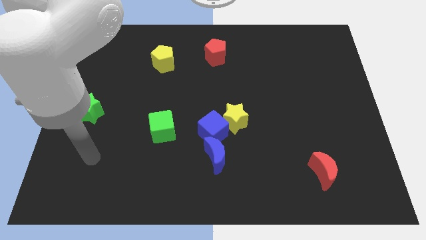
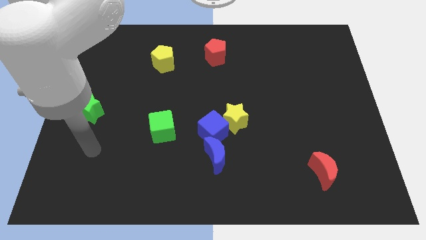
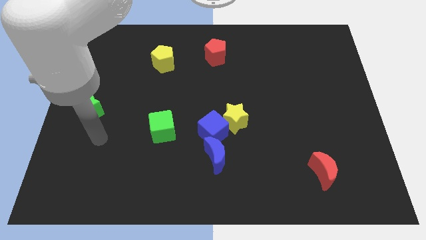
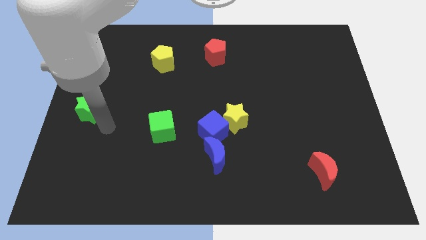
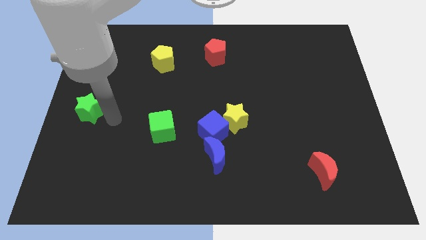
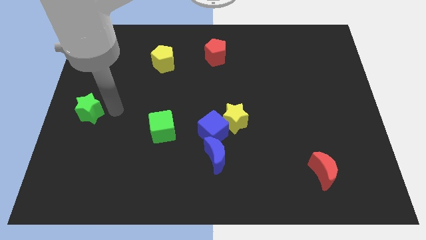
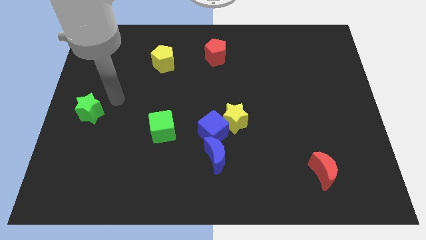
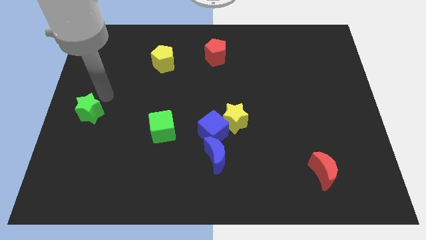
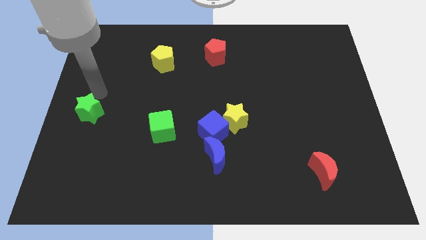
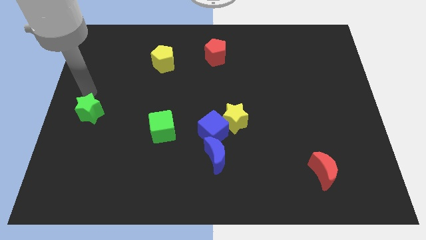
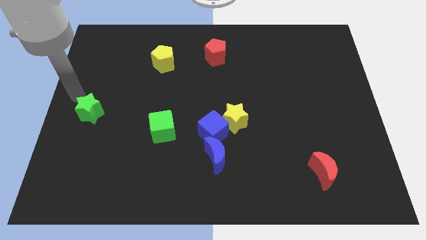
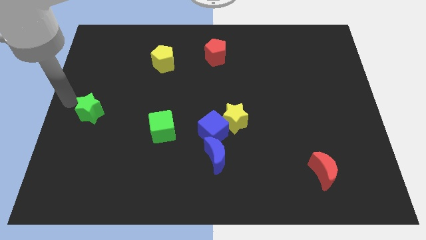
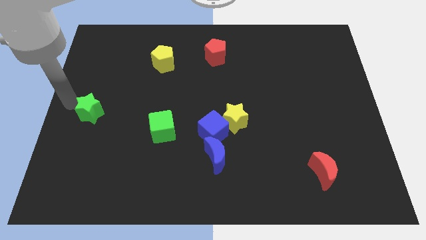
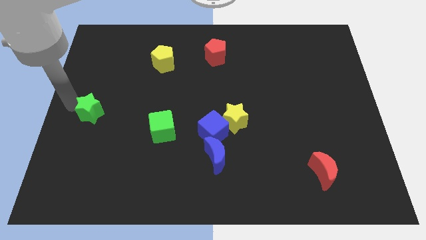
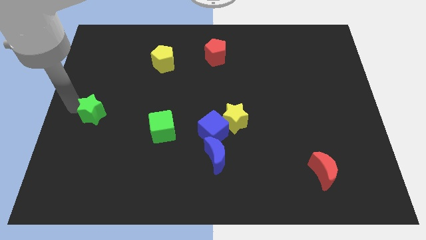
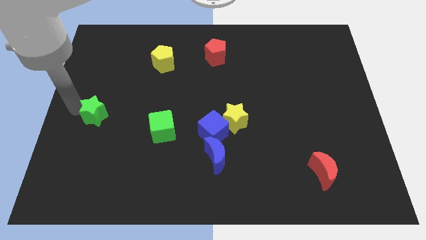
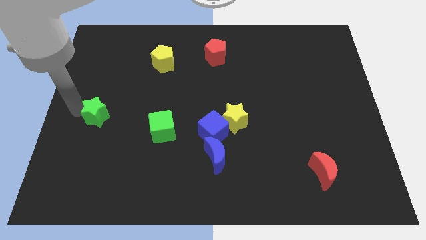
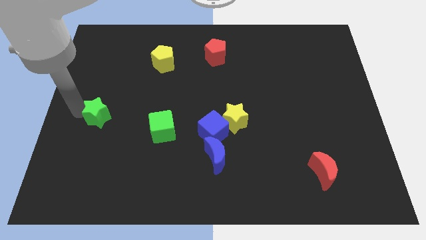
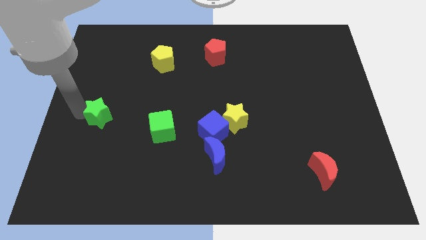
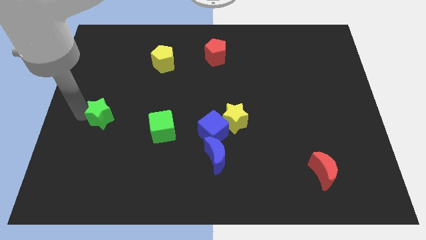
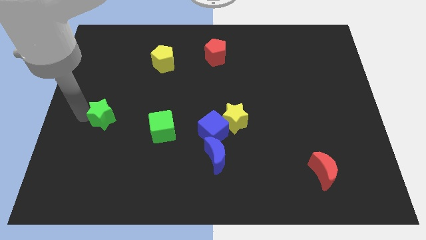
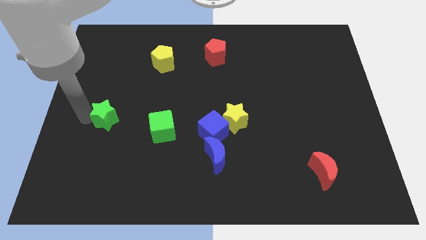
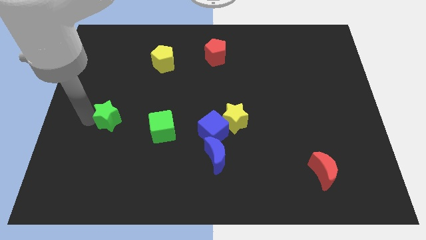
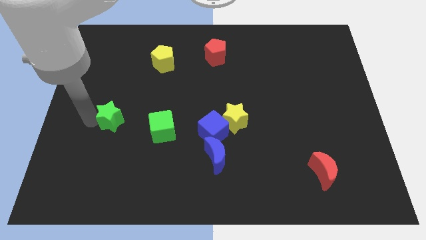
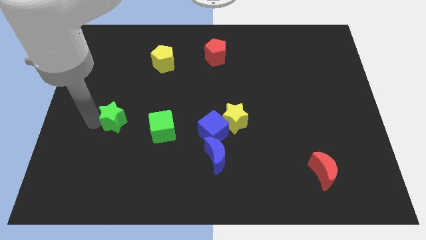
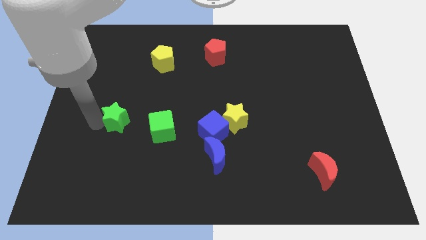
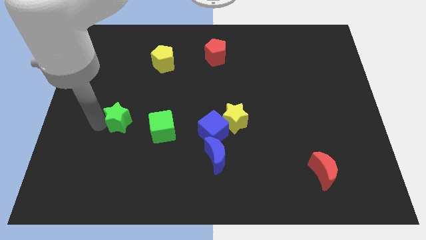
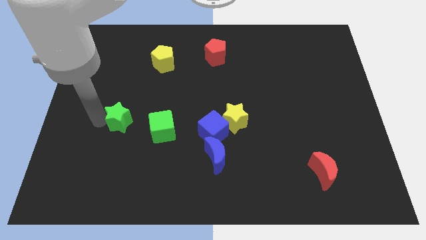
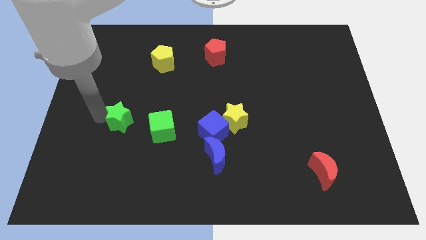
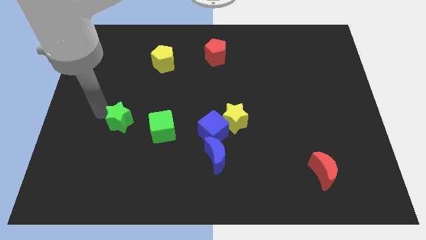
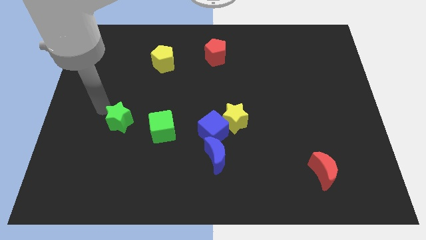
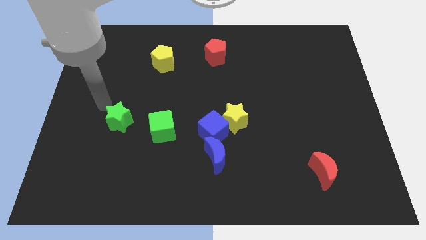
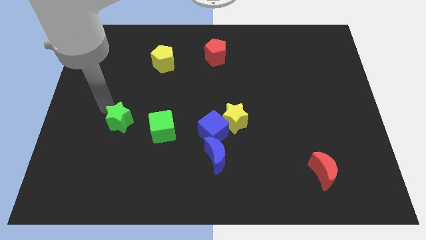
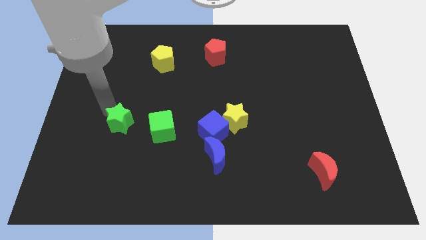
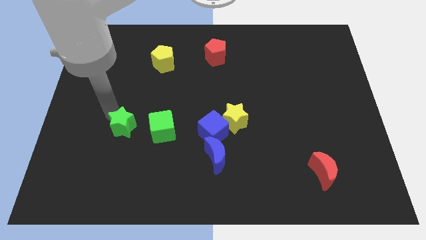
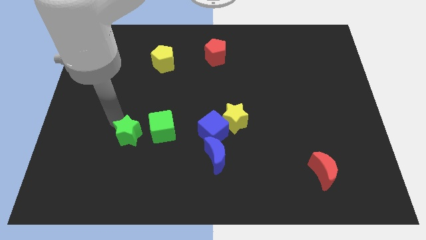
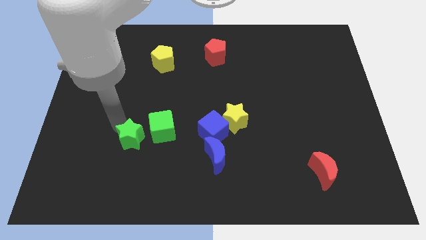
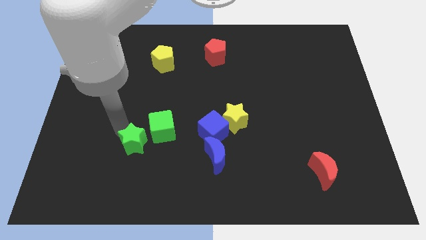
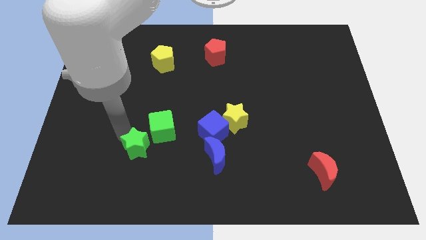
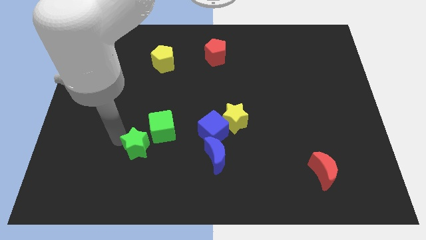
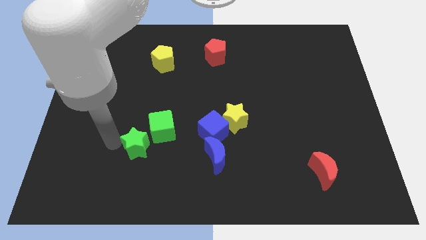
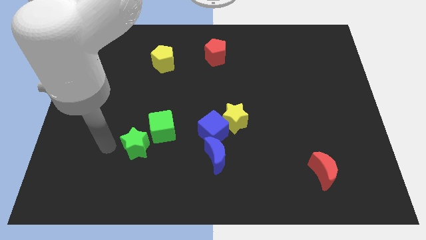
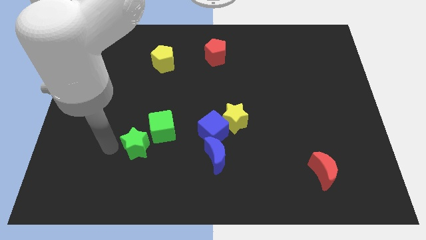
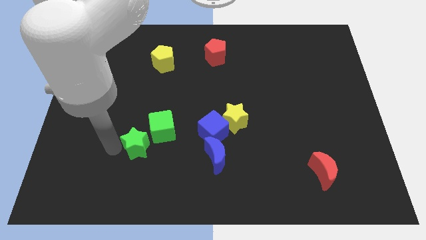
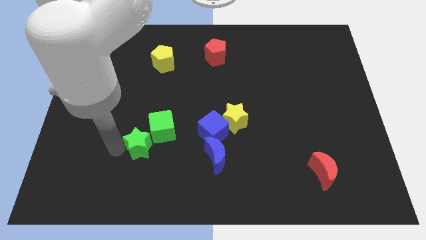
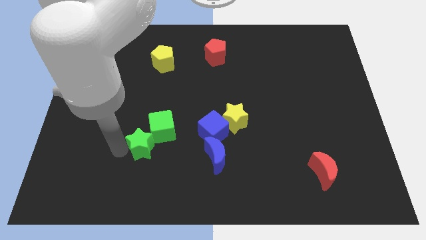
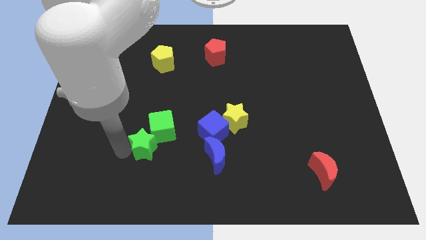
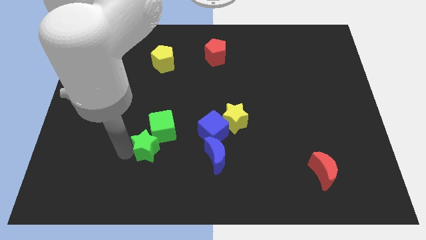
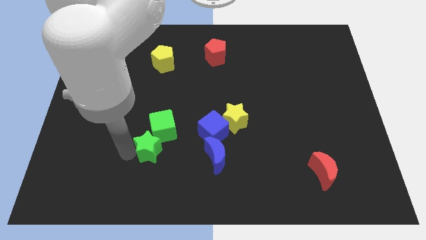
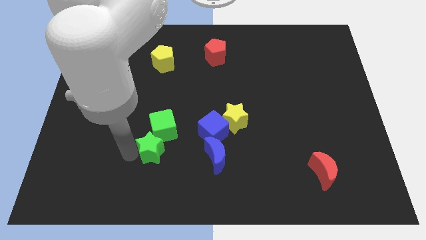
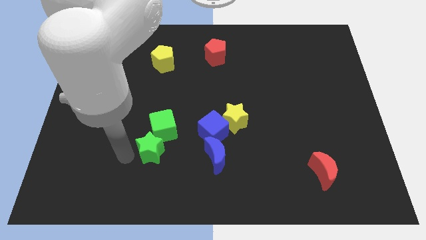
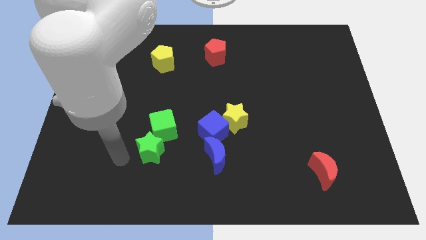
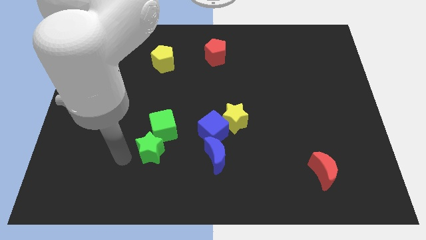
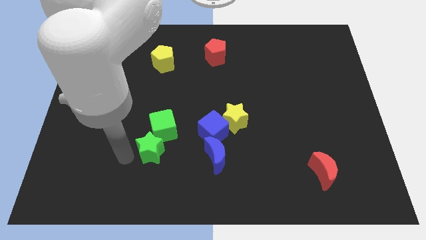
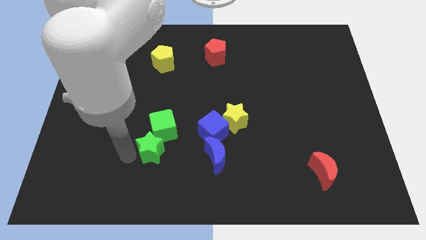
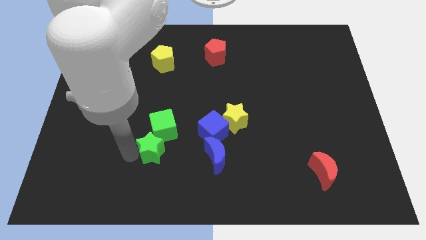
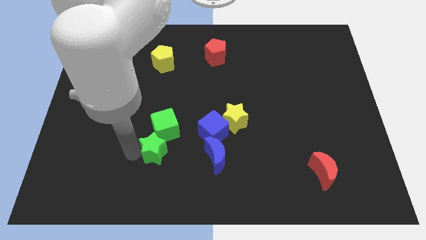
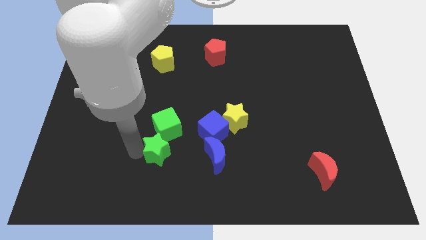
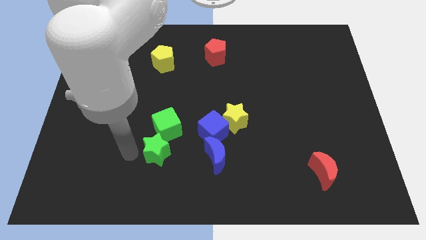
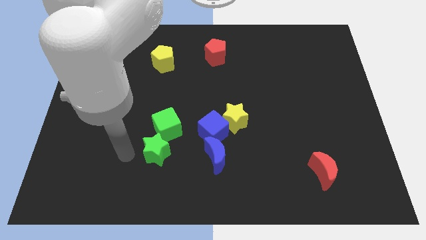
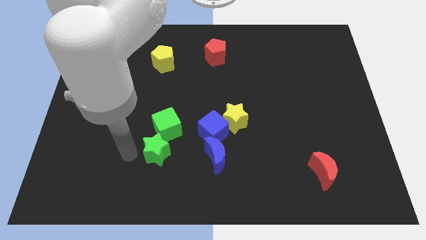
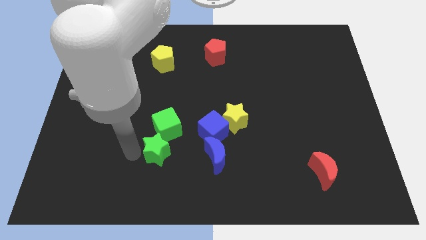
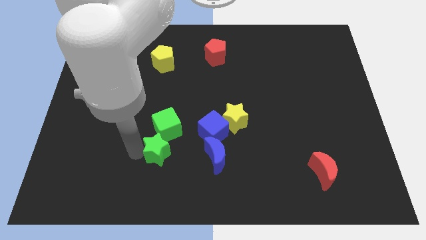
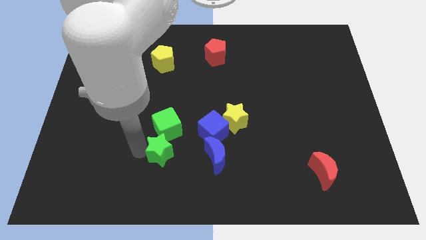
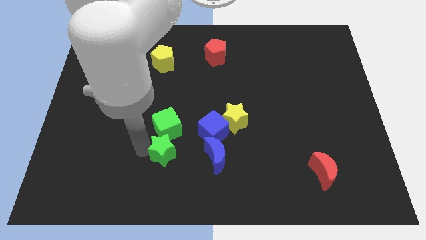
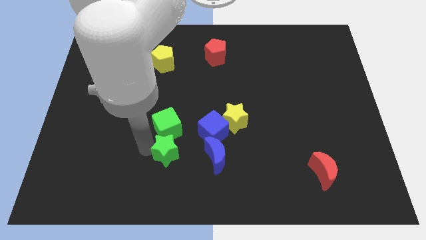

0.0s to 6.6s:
slide the green star to the bottom left of the blue cube
